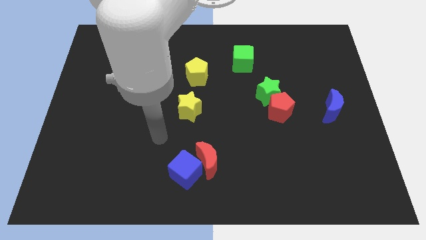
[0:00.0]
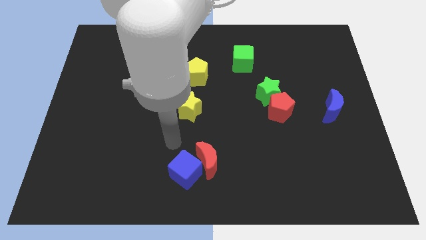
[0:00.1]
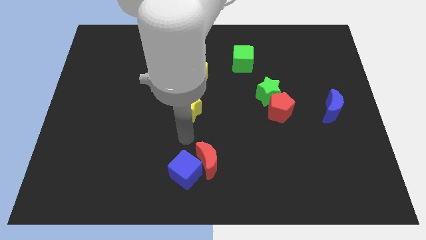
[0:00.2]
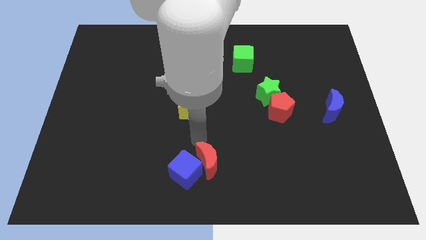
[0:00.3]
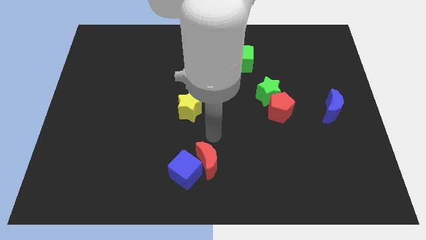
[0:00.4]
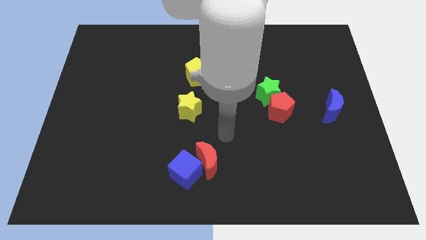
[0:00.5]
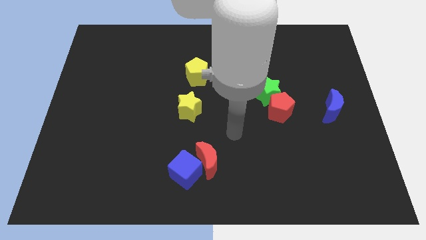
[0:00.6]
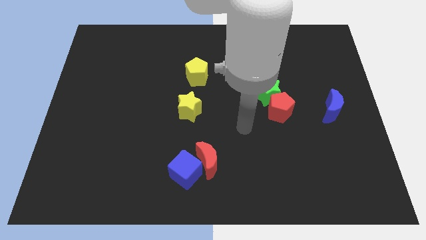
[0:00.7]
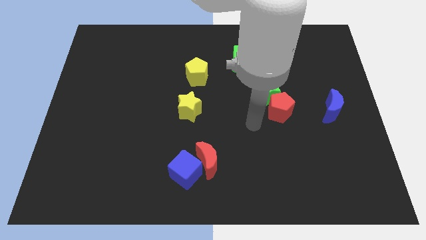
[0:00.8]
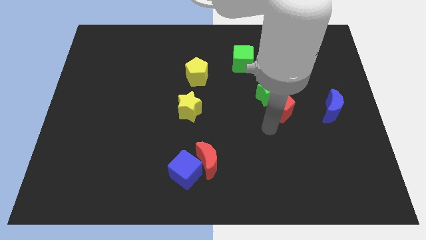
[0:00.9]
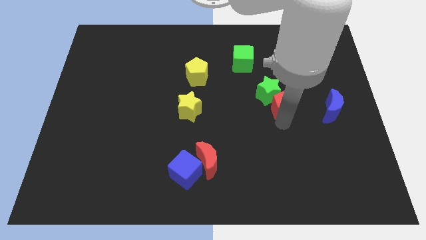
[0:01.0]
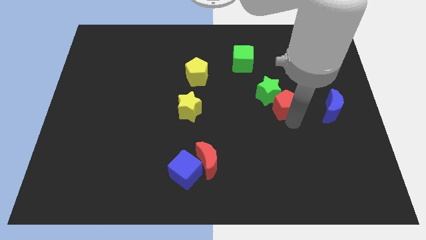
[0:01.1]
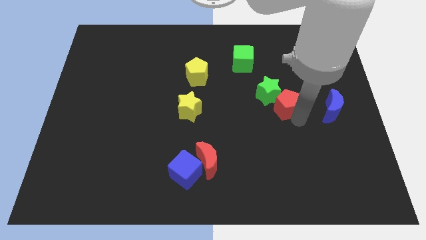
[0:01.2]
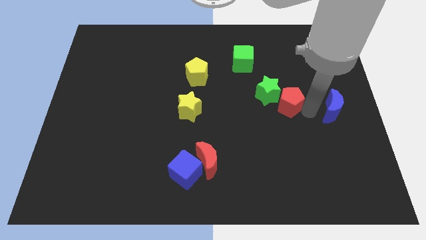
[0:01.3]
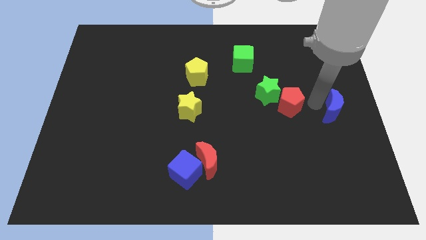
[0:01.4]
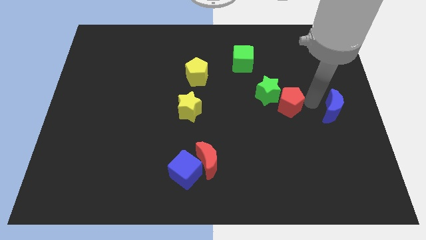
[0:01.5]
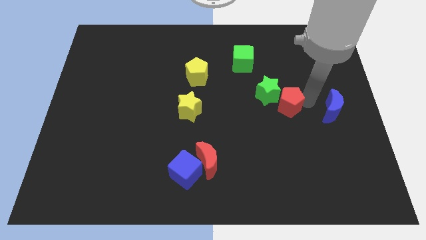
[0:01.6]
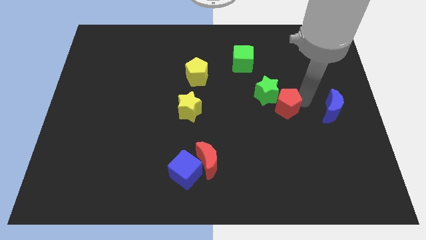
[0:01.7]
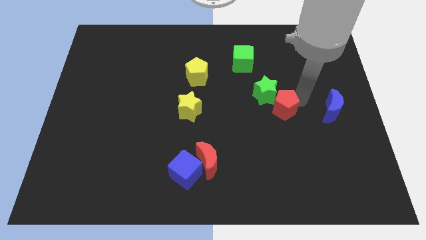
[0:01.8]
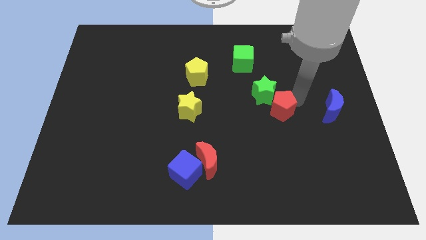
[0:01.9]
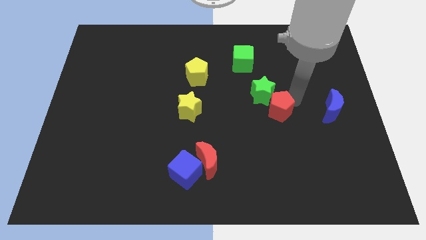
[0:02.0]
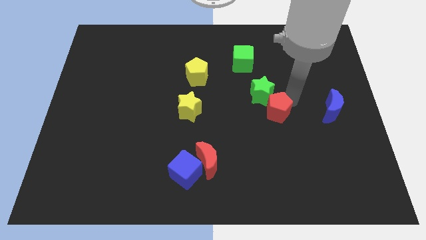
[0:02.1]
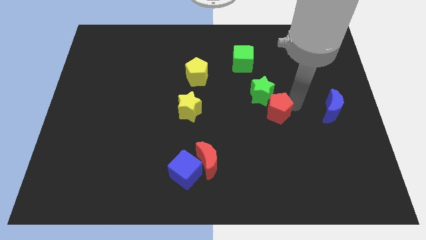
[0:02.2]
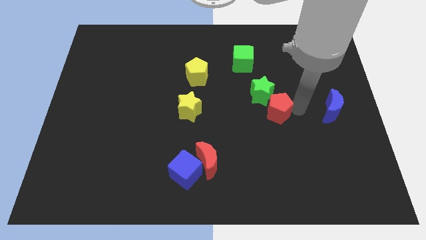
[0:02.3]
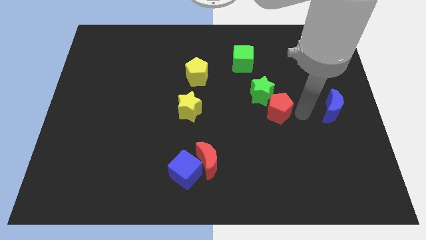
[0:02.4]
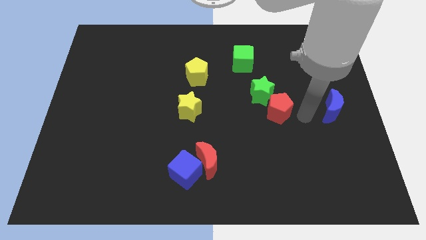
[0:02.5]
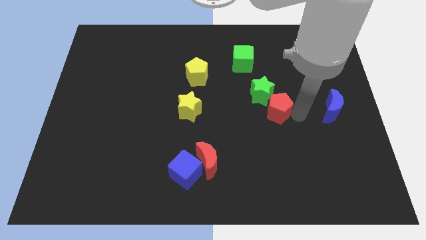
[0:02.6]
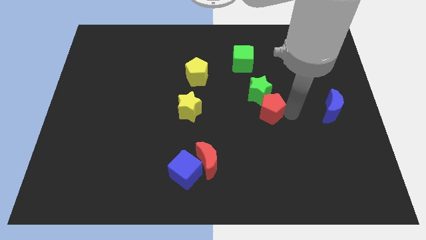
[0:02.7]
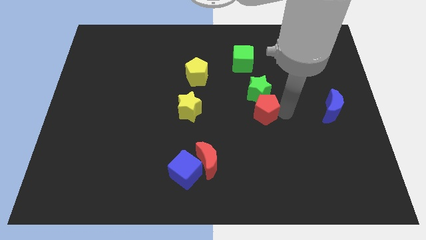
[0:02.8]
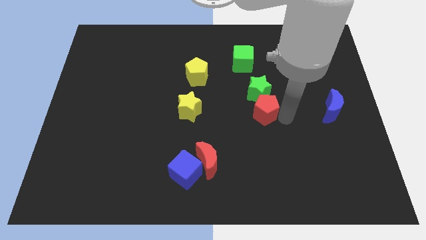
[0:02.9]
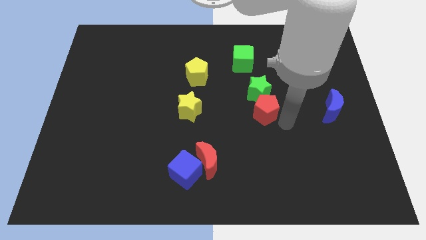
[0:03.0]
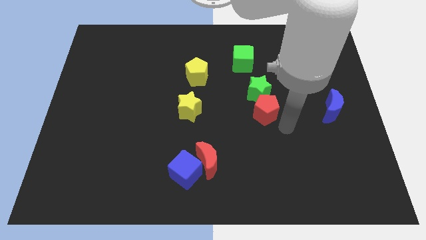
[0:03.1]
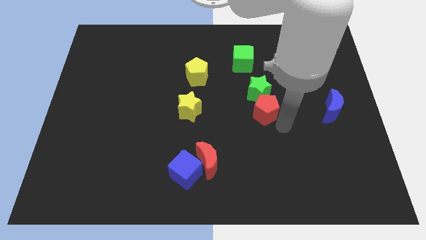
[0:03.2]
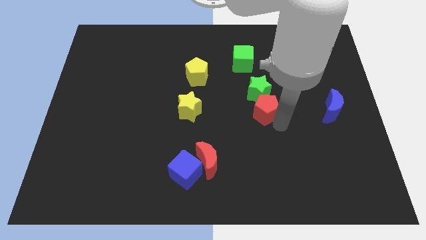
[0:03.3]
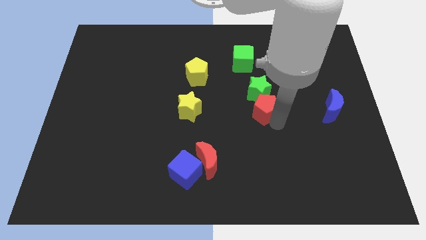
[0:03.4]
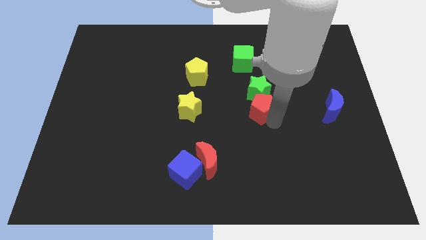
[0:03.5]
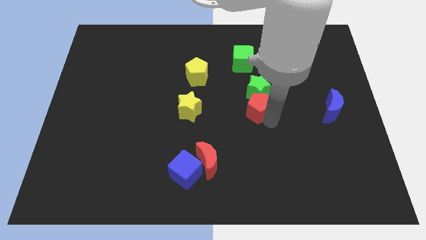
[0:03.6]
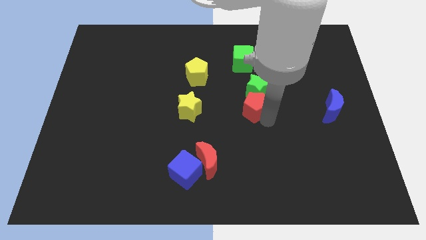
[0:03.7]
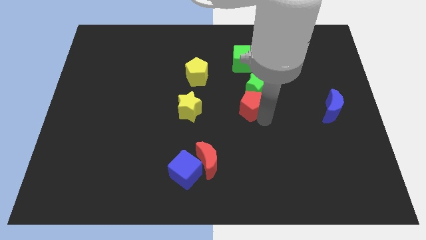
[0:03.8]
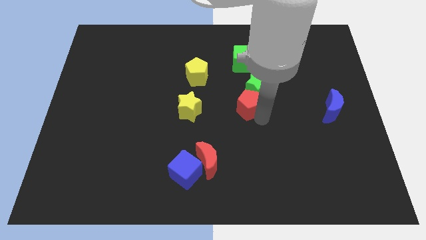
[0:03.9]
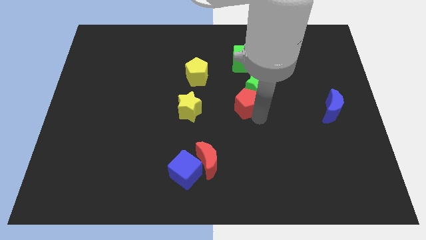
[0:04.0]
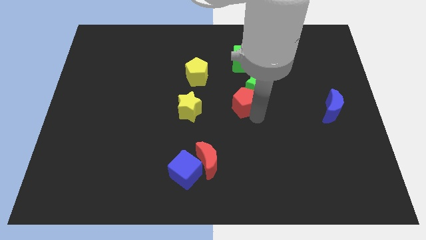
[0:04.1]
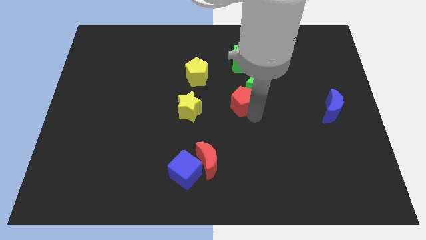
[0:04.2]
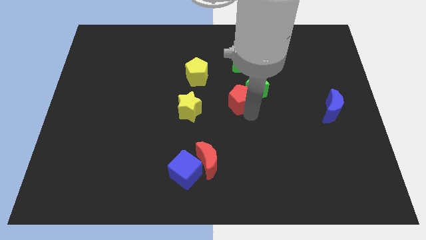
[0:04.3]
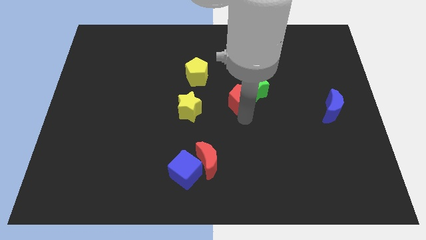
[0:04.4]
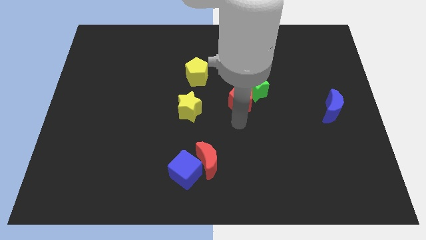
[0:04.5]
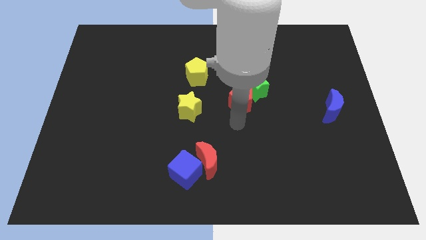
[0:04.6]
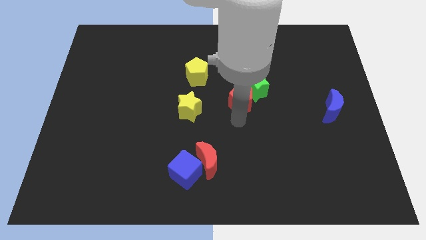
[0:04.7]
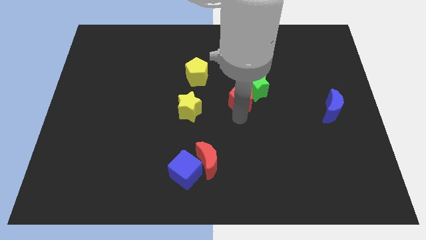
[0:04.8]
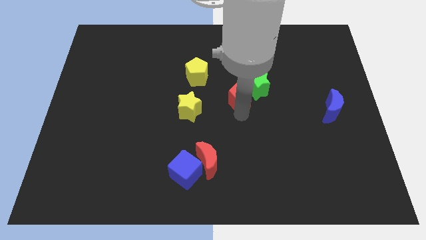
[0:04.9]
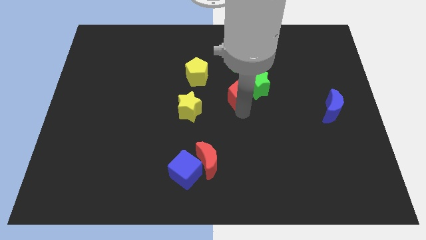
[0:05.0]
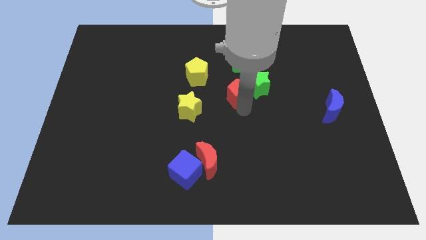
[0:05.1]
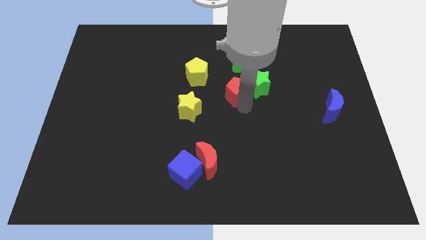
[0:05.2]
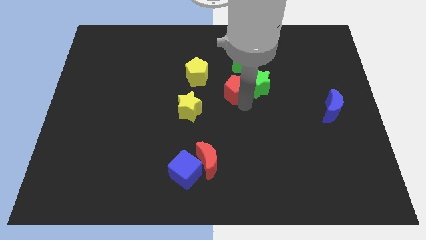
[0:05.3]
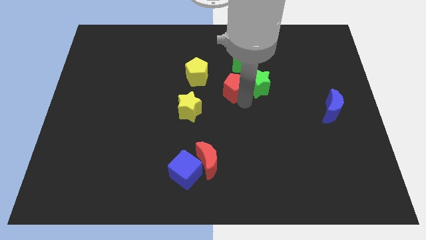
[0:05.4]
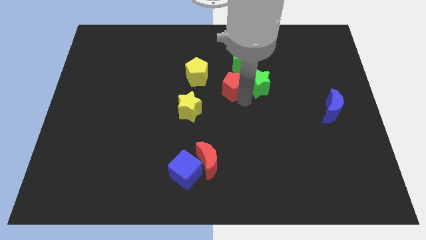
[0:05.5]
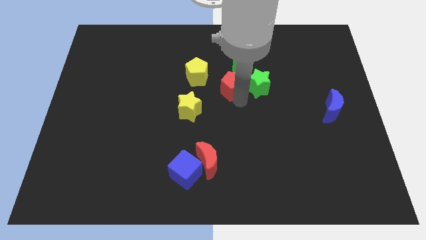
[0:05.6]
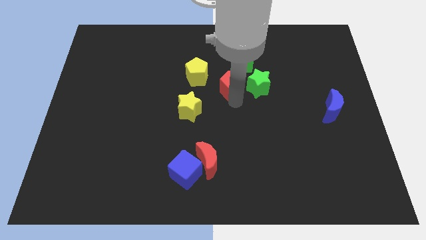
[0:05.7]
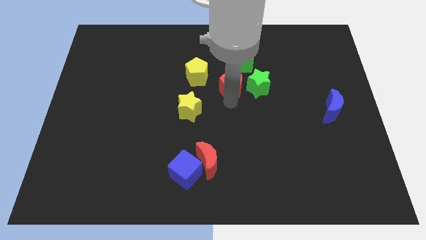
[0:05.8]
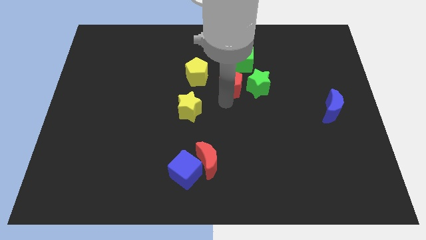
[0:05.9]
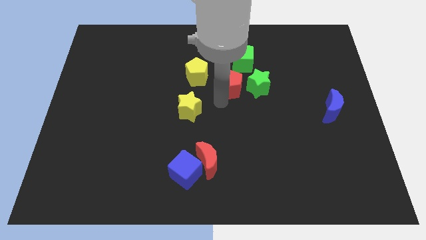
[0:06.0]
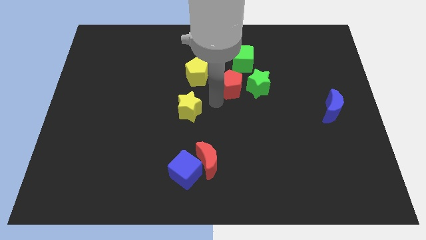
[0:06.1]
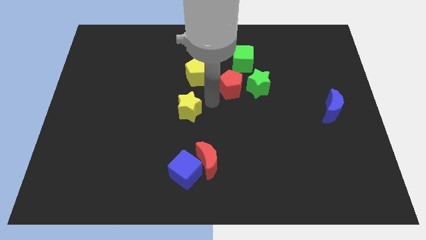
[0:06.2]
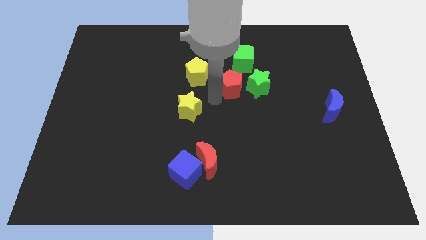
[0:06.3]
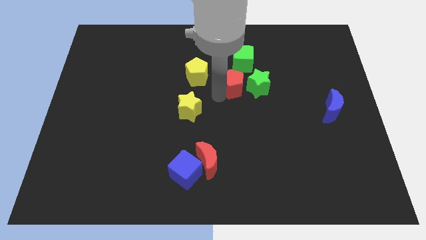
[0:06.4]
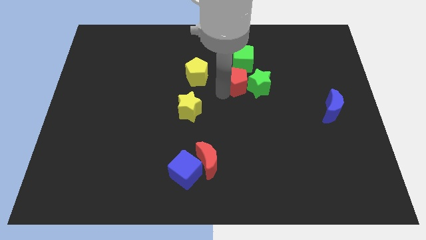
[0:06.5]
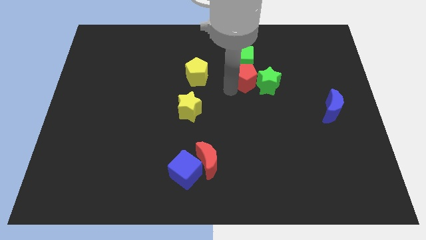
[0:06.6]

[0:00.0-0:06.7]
slide the red pentagon to the green cube

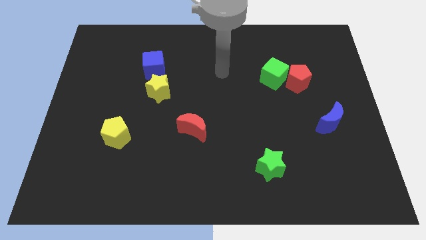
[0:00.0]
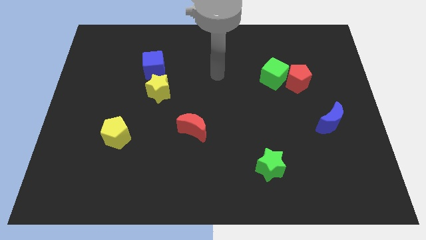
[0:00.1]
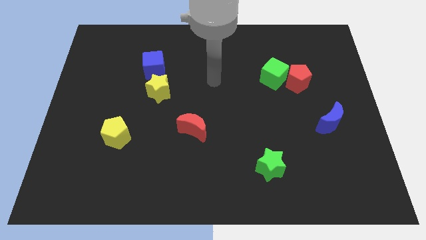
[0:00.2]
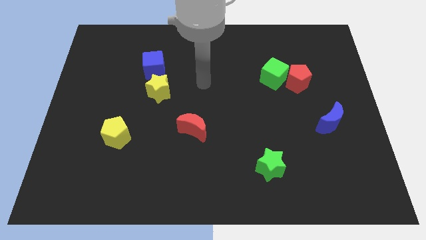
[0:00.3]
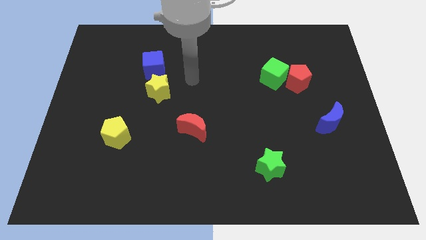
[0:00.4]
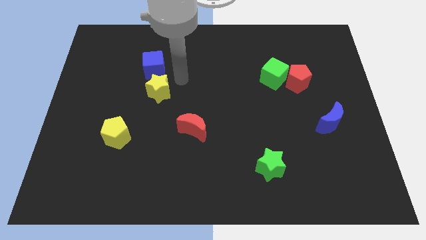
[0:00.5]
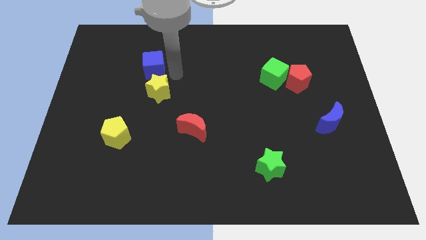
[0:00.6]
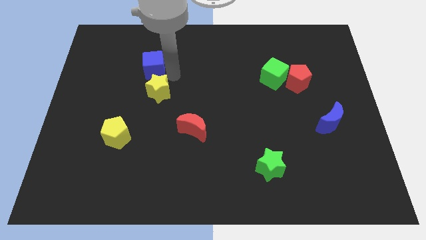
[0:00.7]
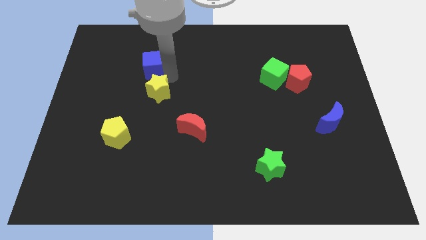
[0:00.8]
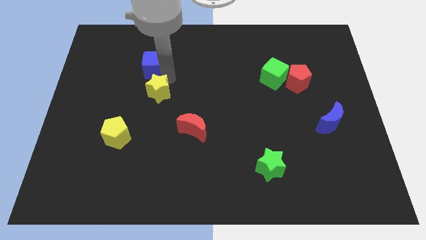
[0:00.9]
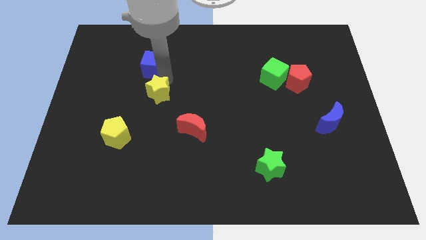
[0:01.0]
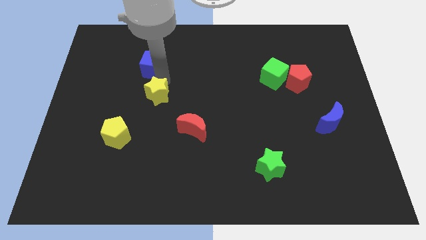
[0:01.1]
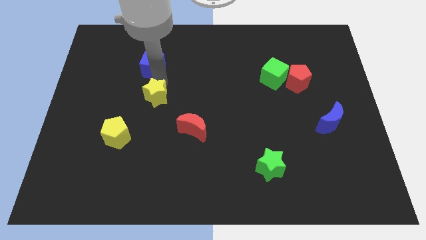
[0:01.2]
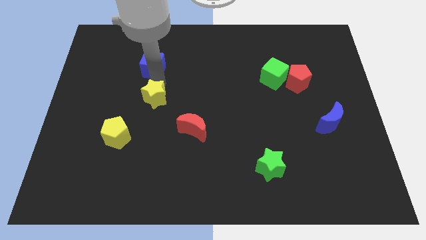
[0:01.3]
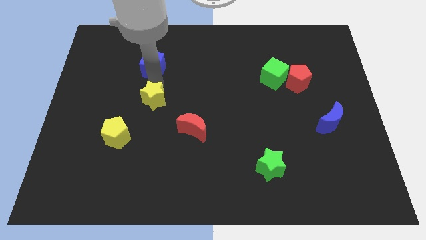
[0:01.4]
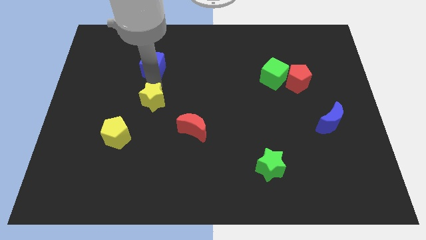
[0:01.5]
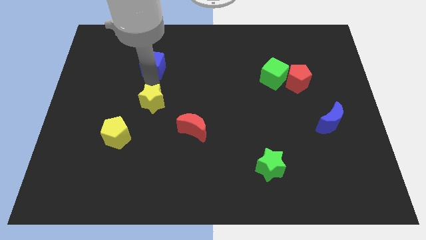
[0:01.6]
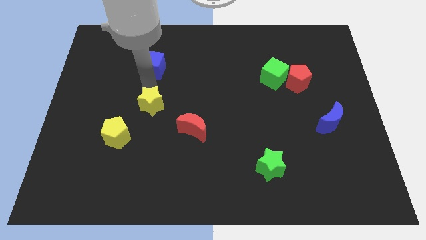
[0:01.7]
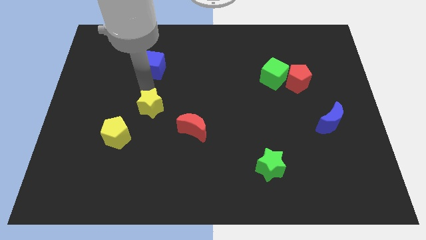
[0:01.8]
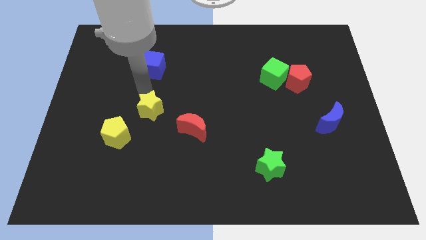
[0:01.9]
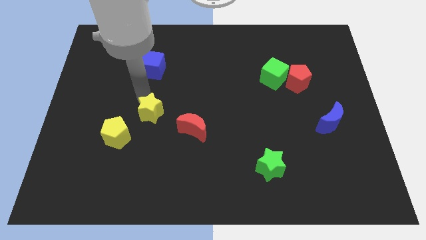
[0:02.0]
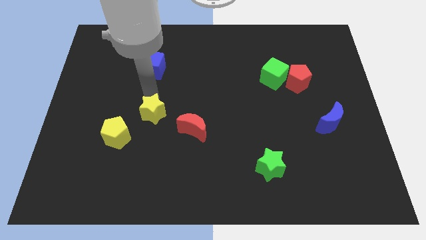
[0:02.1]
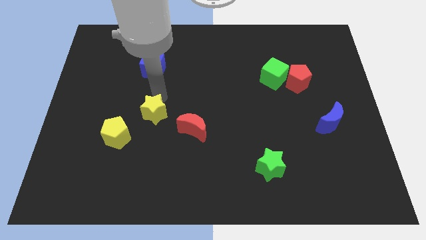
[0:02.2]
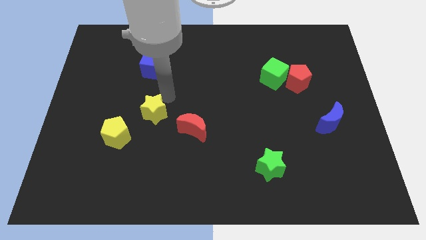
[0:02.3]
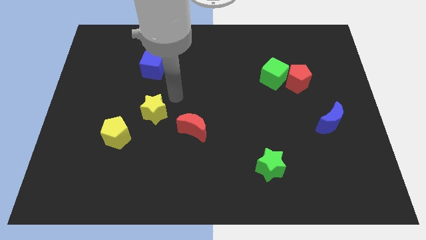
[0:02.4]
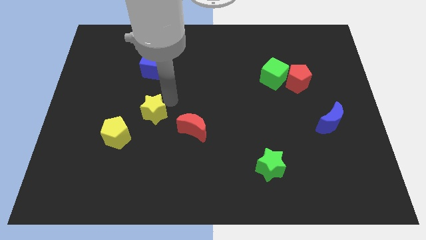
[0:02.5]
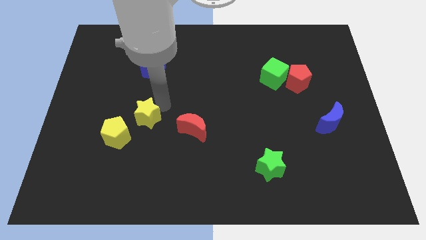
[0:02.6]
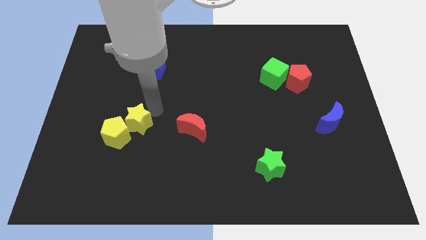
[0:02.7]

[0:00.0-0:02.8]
move the yellow star towards the yellow pentagon
